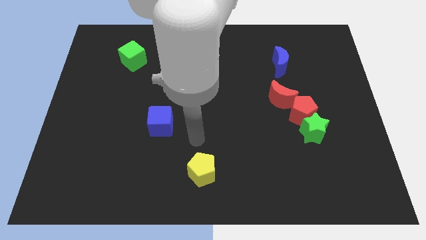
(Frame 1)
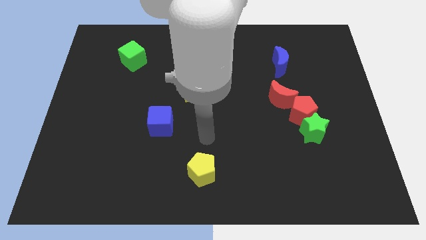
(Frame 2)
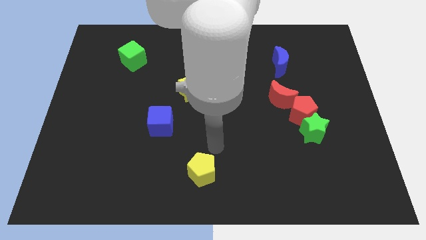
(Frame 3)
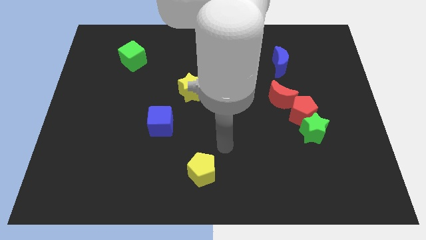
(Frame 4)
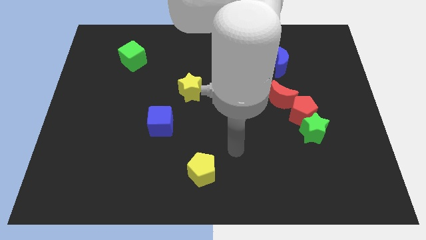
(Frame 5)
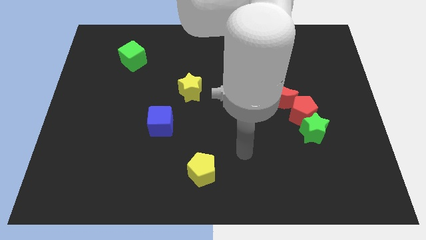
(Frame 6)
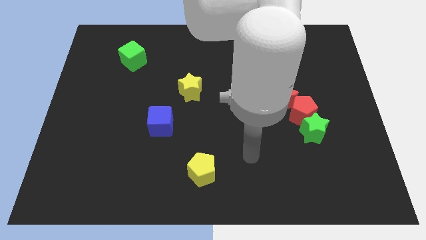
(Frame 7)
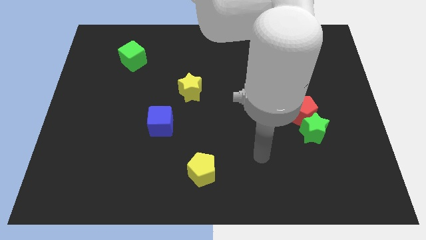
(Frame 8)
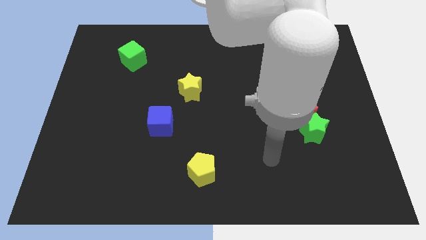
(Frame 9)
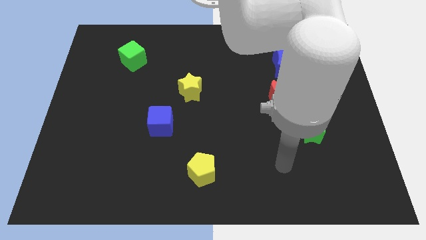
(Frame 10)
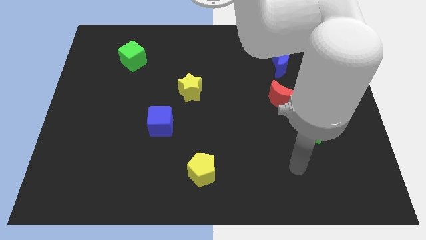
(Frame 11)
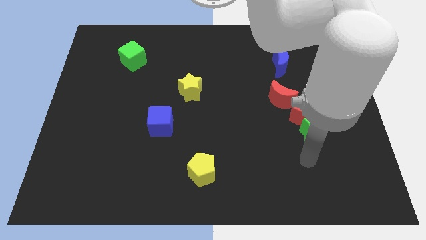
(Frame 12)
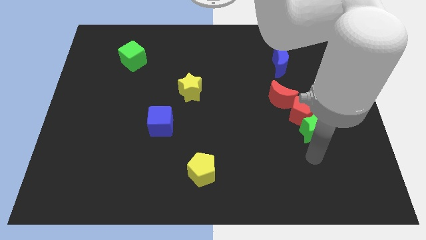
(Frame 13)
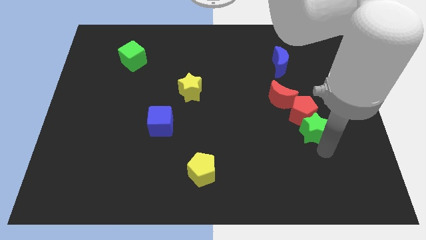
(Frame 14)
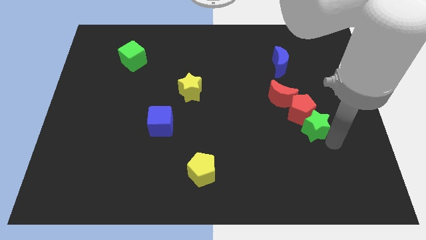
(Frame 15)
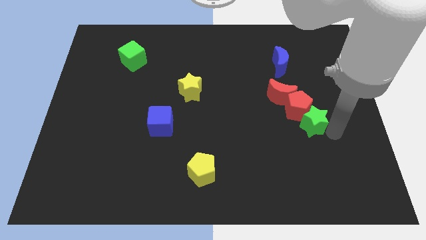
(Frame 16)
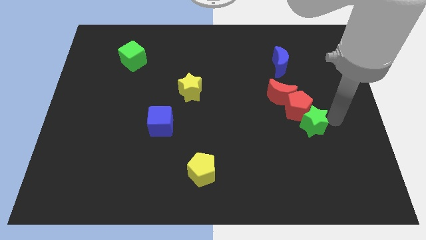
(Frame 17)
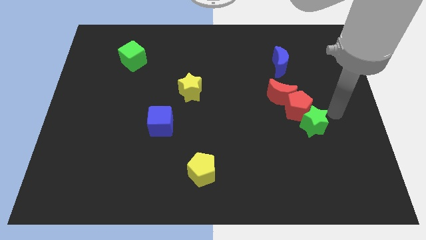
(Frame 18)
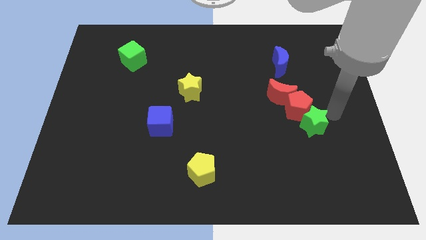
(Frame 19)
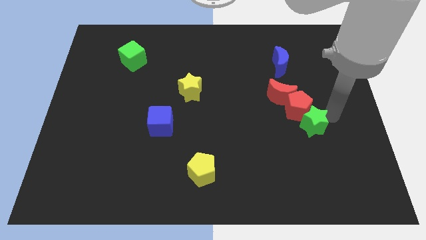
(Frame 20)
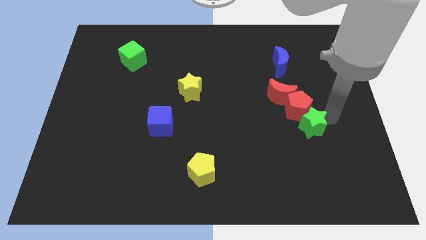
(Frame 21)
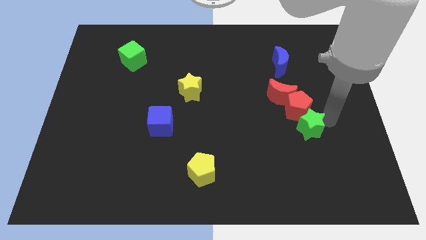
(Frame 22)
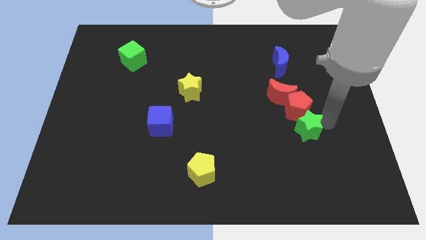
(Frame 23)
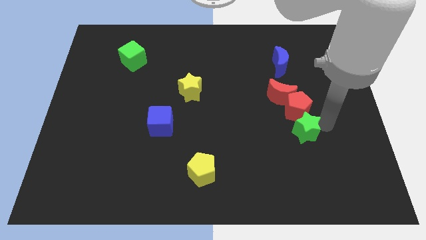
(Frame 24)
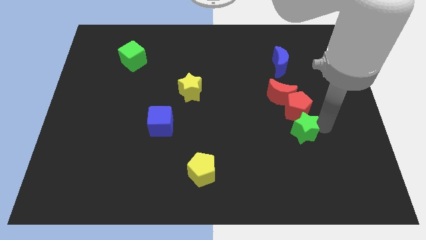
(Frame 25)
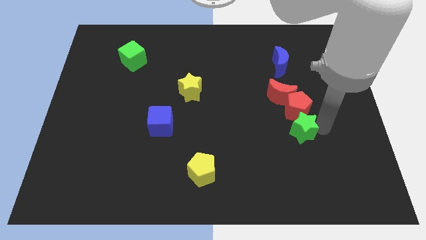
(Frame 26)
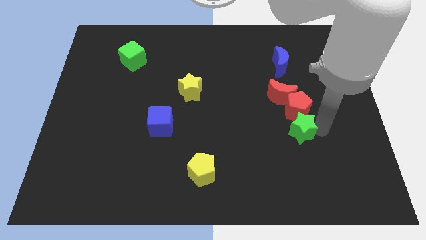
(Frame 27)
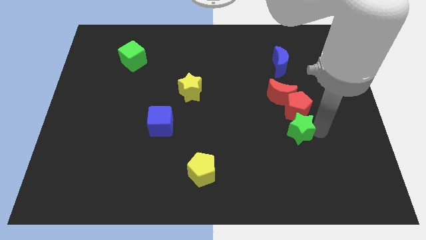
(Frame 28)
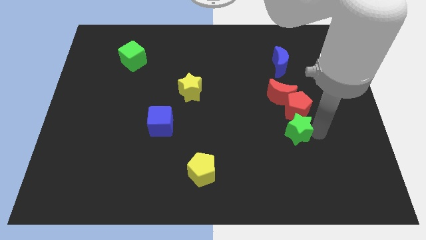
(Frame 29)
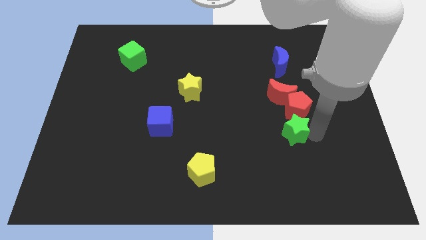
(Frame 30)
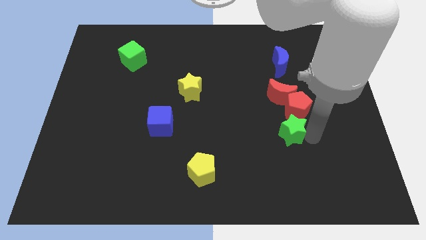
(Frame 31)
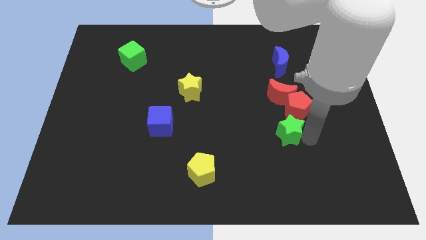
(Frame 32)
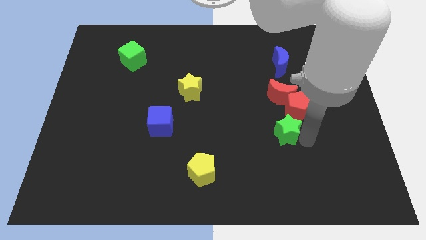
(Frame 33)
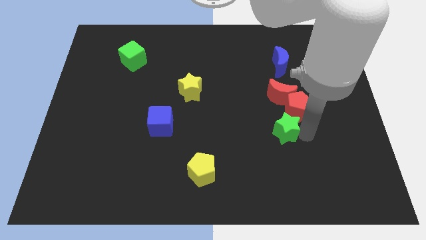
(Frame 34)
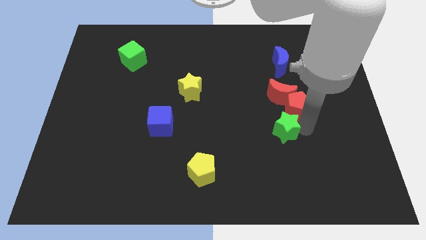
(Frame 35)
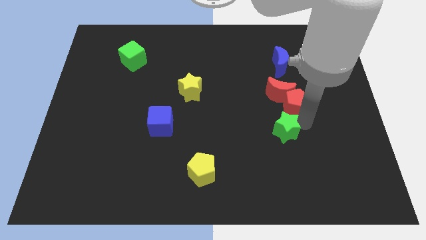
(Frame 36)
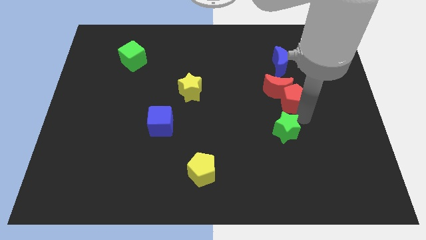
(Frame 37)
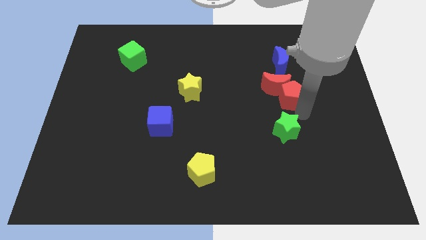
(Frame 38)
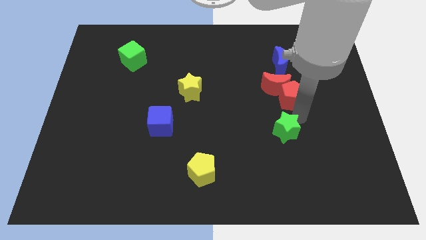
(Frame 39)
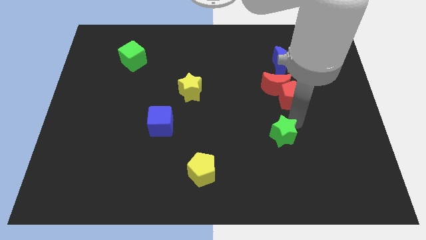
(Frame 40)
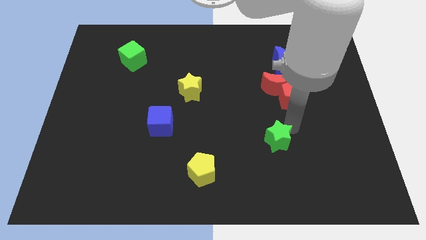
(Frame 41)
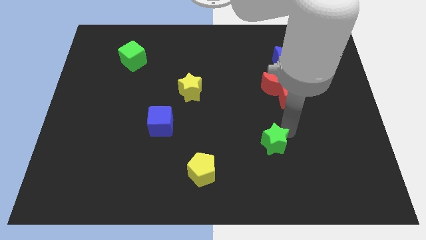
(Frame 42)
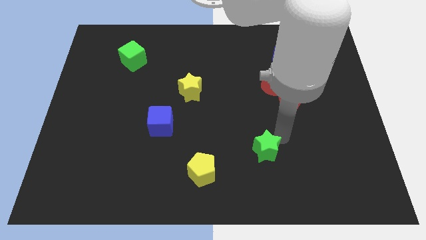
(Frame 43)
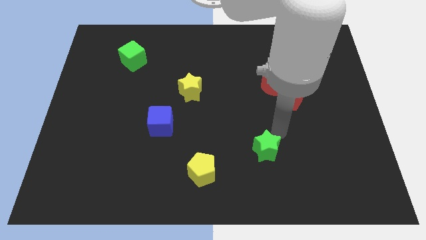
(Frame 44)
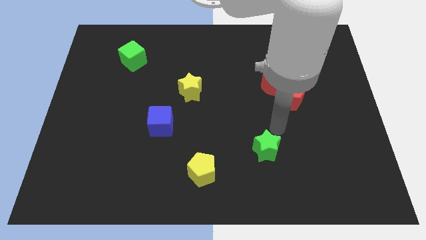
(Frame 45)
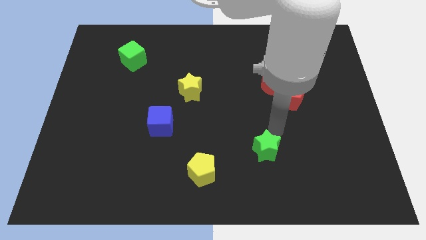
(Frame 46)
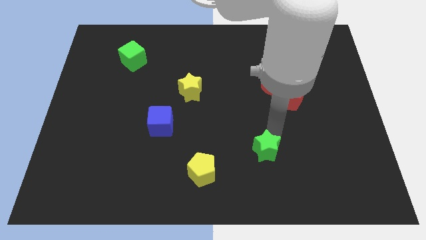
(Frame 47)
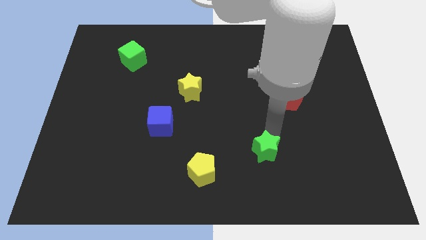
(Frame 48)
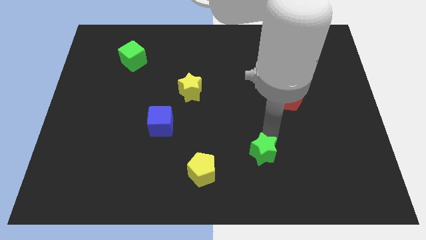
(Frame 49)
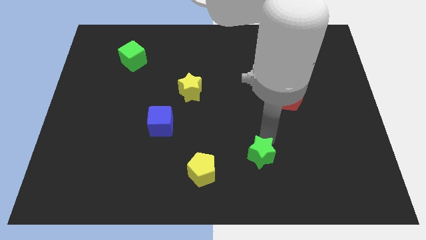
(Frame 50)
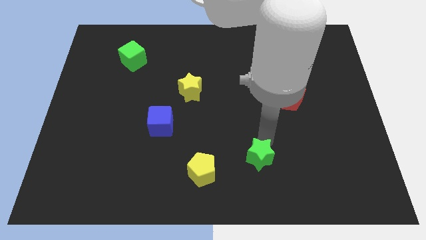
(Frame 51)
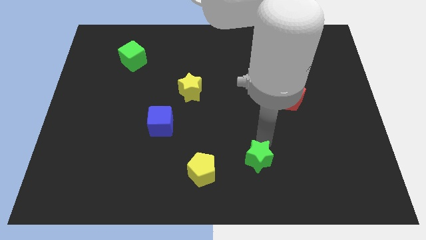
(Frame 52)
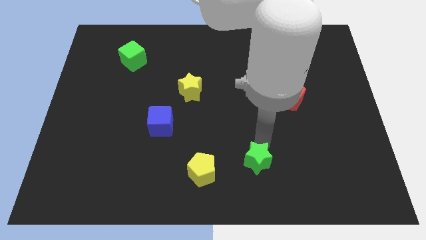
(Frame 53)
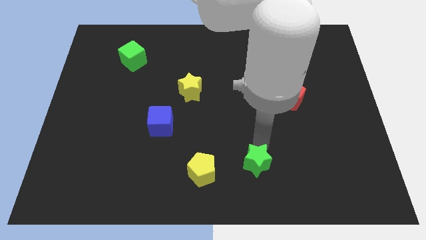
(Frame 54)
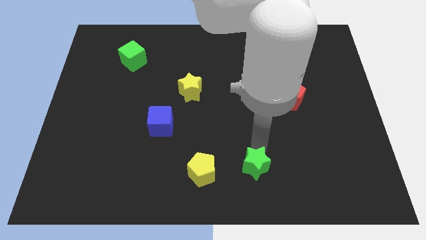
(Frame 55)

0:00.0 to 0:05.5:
slide the green star to the bottom

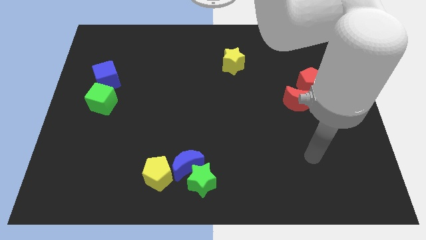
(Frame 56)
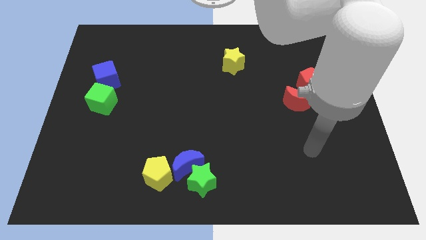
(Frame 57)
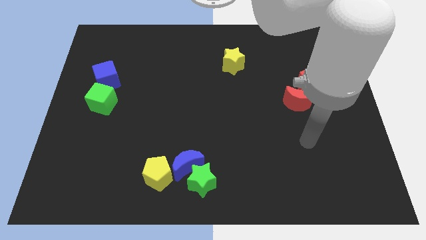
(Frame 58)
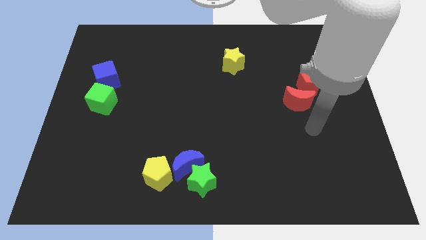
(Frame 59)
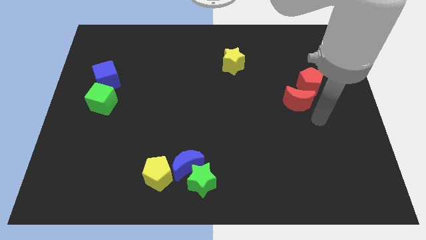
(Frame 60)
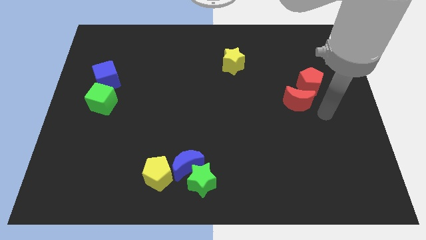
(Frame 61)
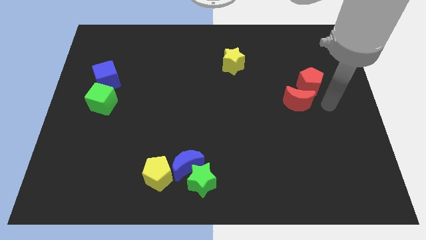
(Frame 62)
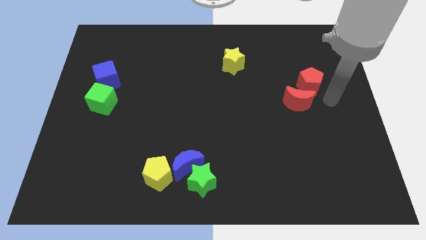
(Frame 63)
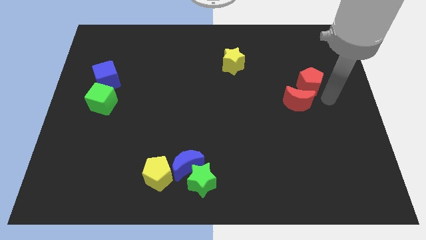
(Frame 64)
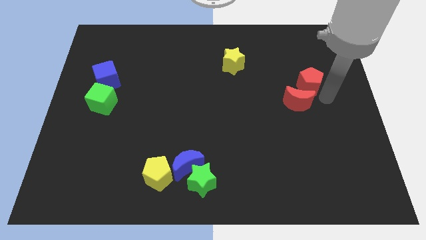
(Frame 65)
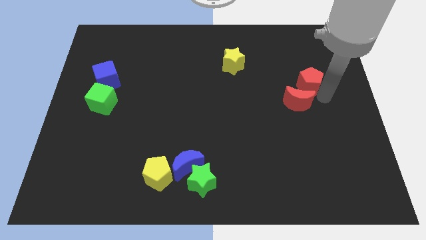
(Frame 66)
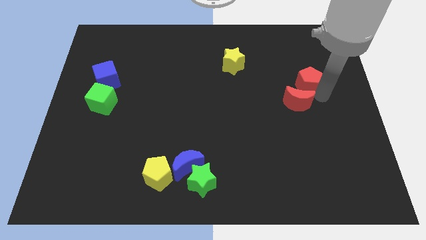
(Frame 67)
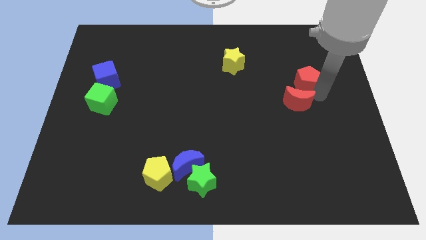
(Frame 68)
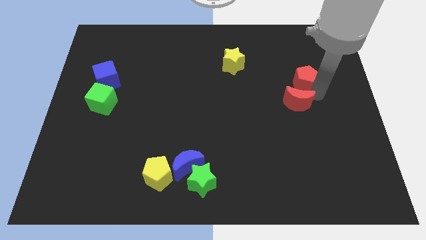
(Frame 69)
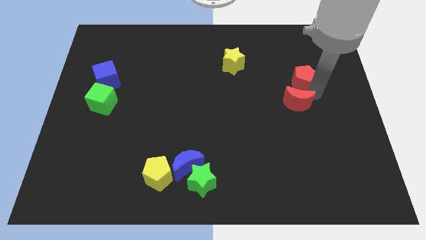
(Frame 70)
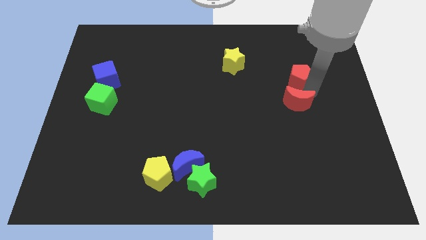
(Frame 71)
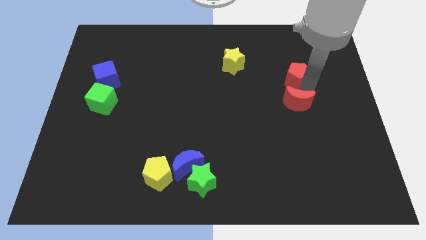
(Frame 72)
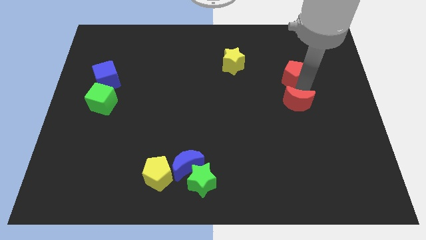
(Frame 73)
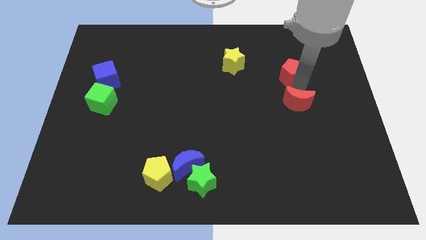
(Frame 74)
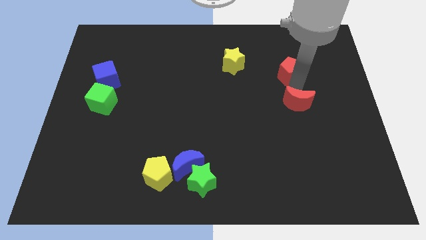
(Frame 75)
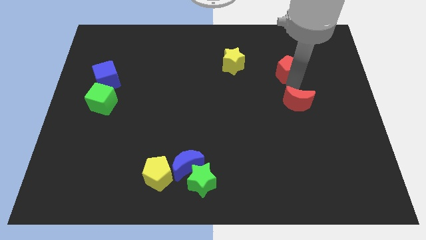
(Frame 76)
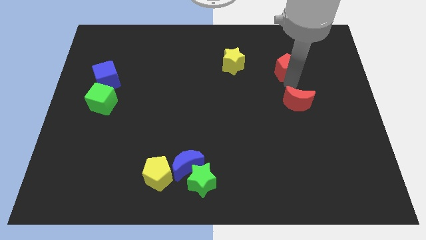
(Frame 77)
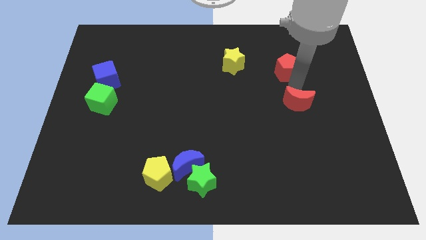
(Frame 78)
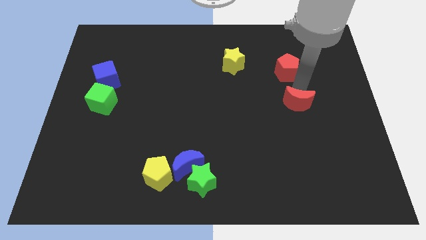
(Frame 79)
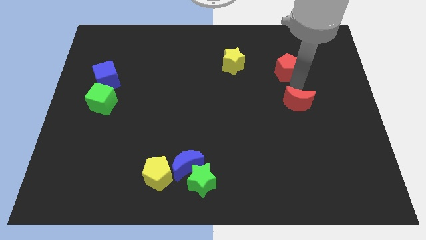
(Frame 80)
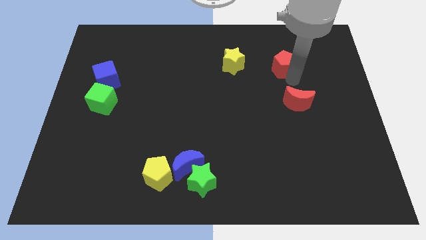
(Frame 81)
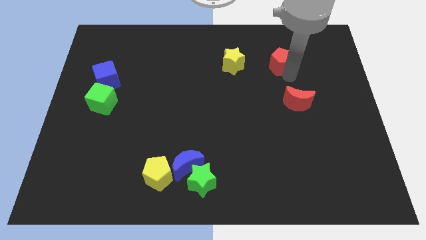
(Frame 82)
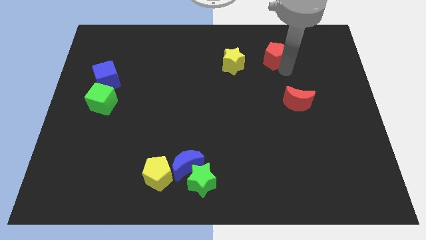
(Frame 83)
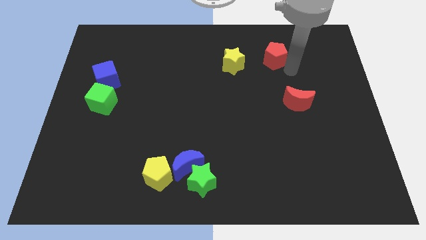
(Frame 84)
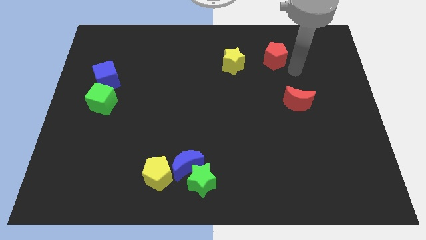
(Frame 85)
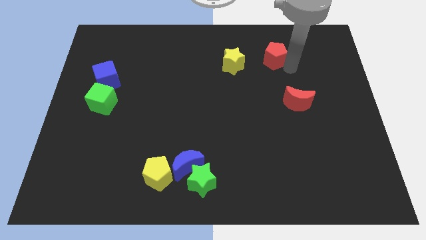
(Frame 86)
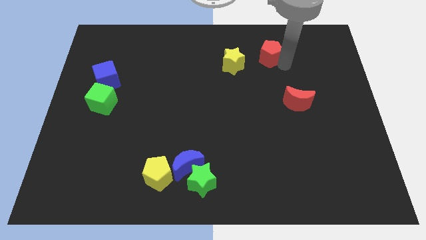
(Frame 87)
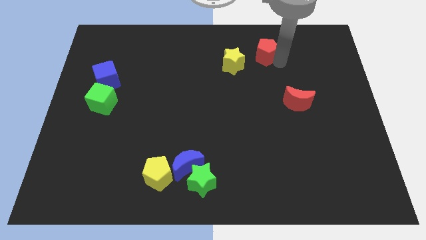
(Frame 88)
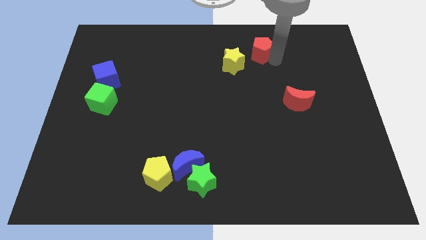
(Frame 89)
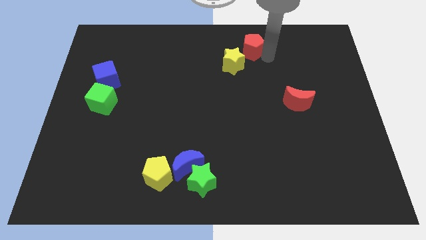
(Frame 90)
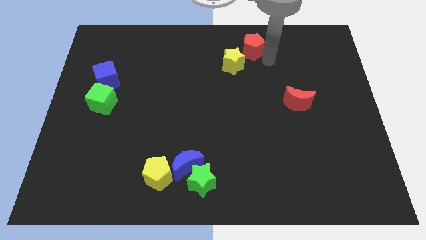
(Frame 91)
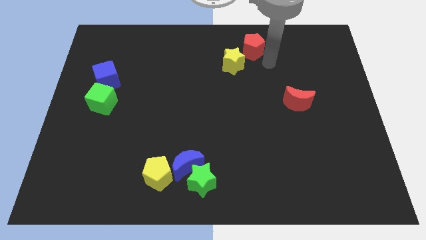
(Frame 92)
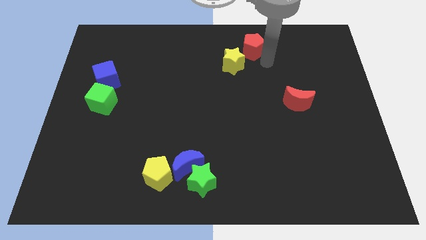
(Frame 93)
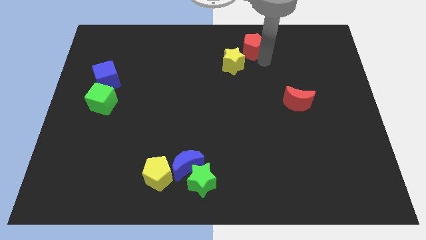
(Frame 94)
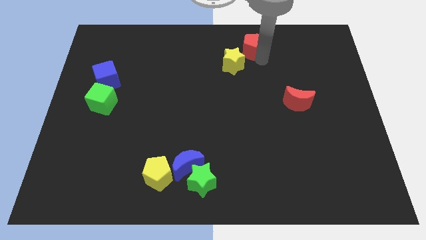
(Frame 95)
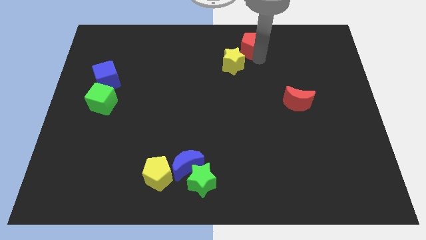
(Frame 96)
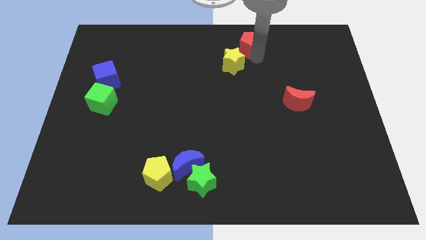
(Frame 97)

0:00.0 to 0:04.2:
push the red pentagon to the top side
